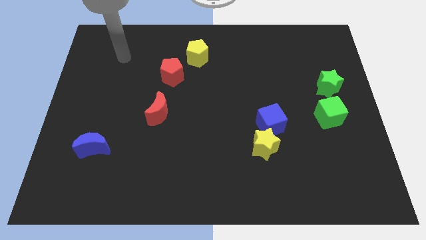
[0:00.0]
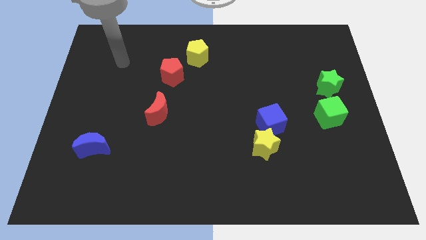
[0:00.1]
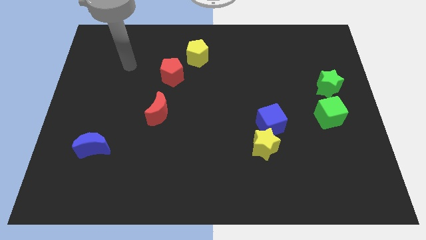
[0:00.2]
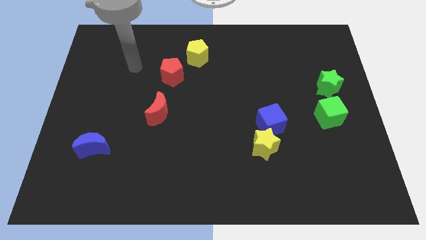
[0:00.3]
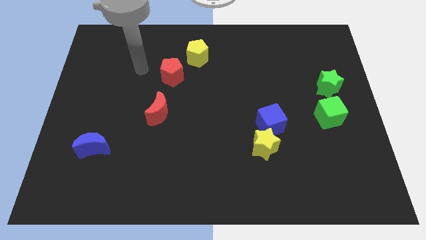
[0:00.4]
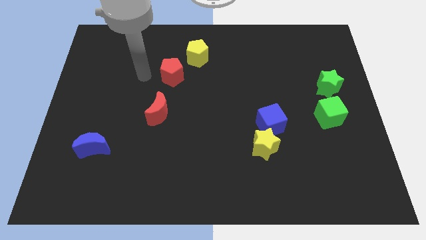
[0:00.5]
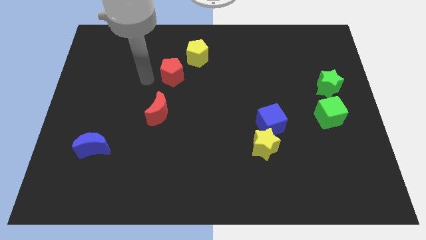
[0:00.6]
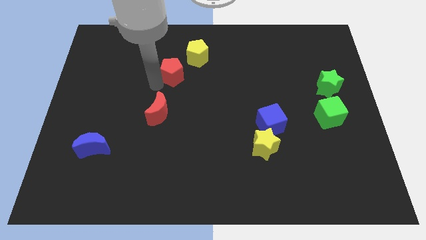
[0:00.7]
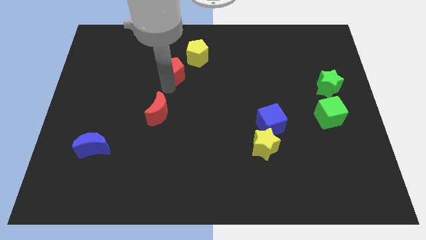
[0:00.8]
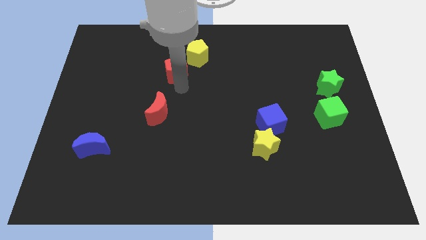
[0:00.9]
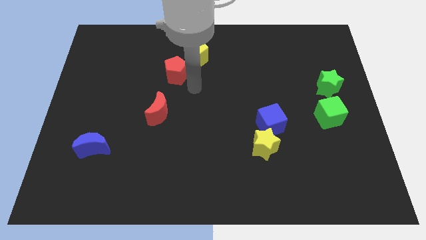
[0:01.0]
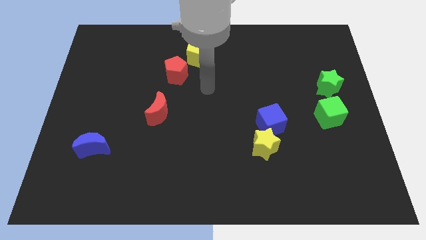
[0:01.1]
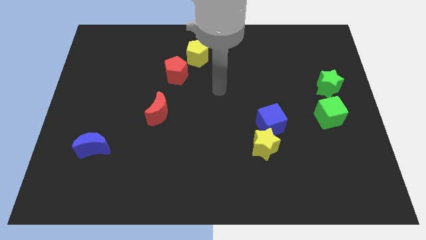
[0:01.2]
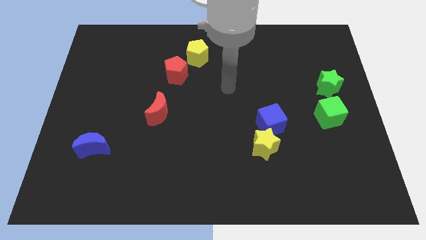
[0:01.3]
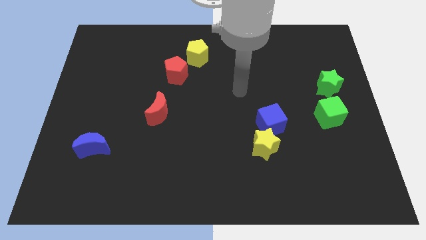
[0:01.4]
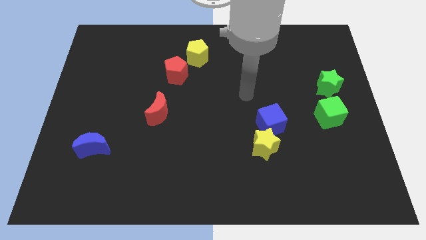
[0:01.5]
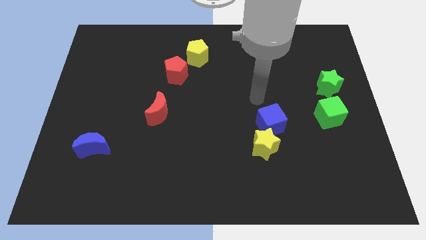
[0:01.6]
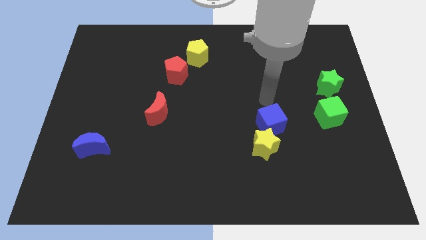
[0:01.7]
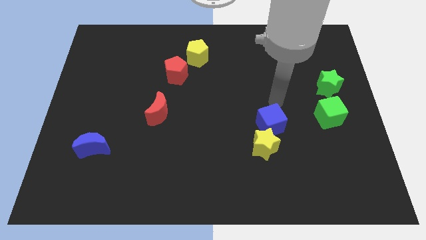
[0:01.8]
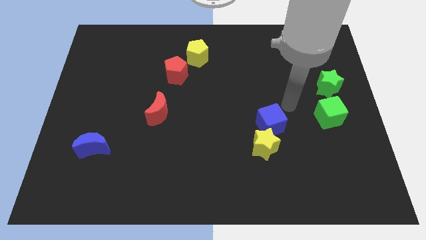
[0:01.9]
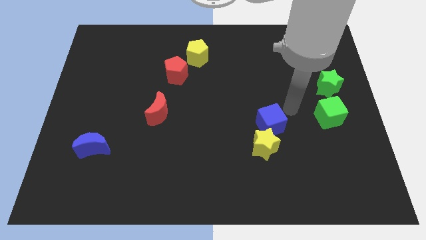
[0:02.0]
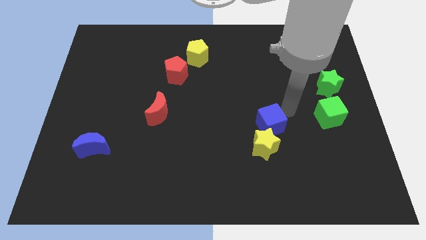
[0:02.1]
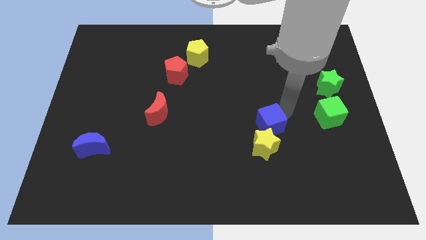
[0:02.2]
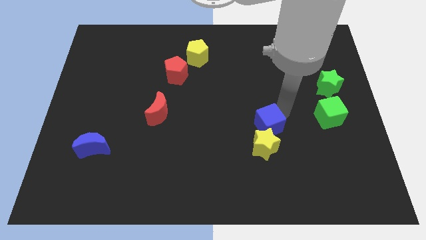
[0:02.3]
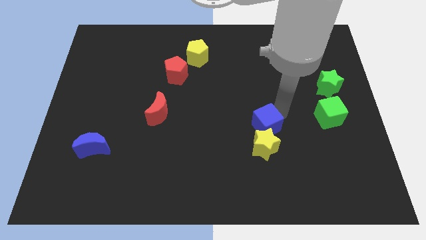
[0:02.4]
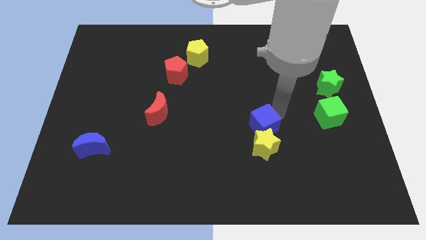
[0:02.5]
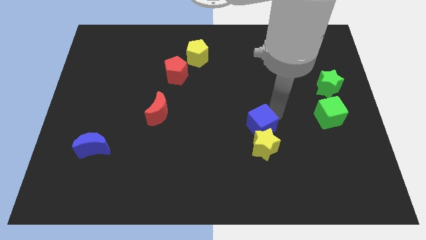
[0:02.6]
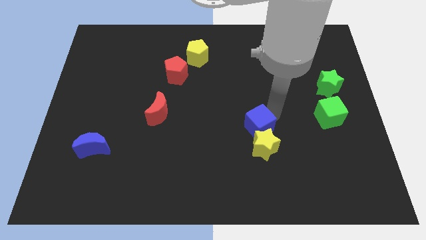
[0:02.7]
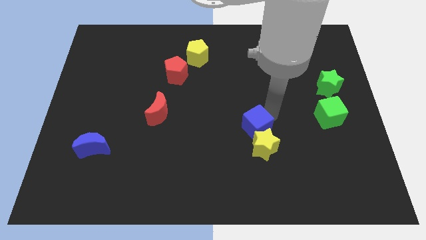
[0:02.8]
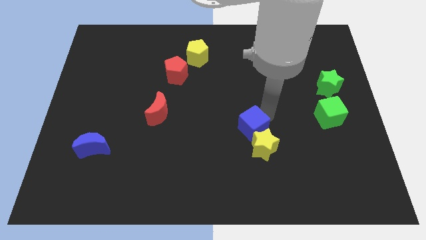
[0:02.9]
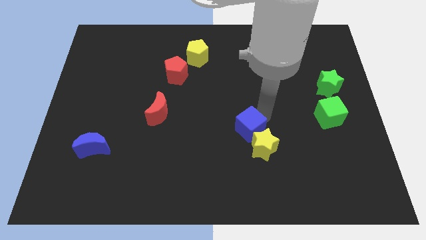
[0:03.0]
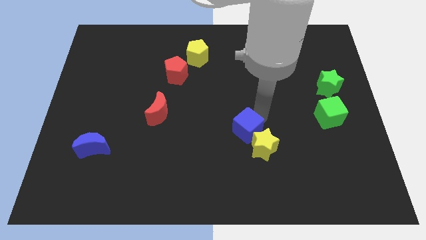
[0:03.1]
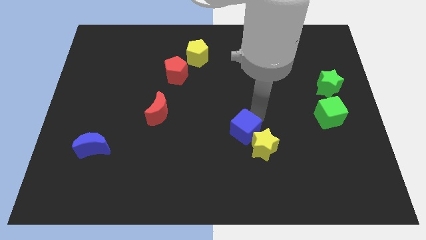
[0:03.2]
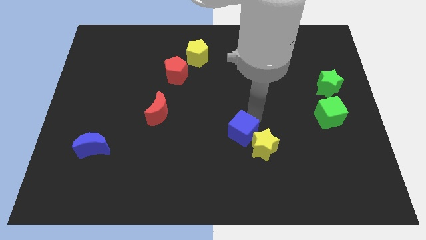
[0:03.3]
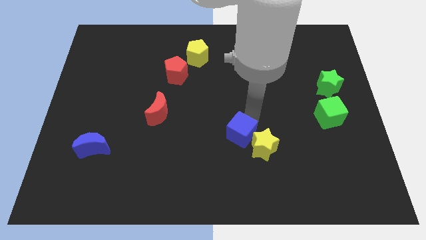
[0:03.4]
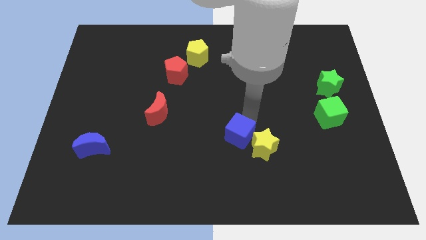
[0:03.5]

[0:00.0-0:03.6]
push the blue cube downwards and to the left a little

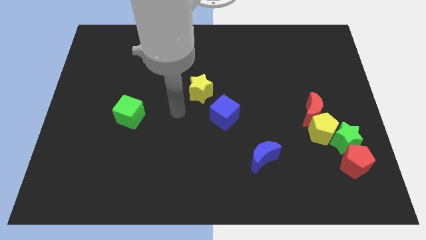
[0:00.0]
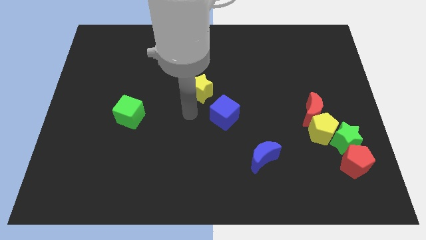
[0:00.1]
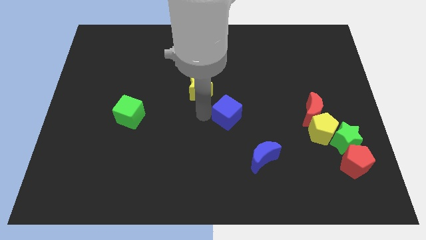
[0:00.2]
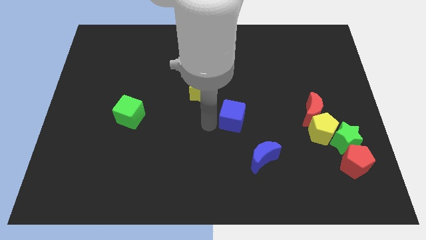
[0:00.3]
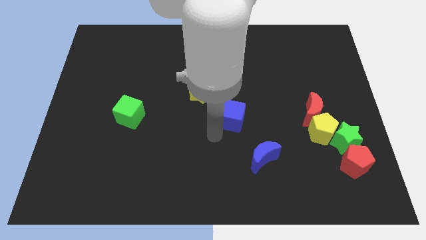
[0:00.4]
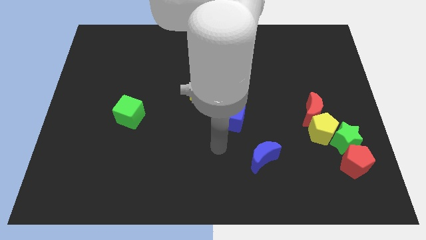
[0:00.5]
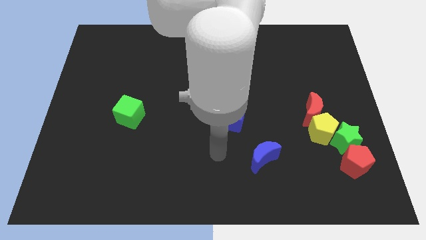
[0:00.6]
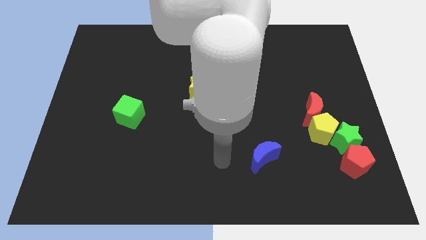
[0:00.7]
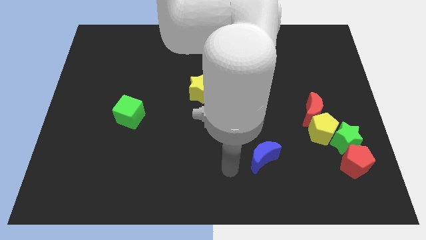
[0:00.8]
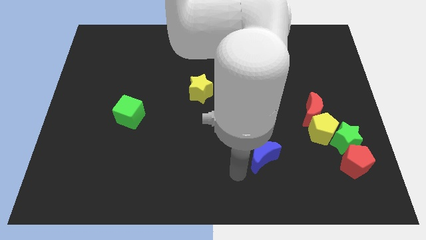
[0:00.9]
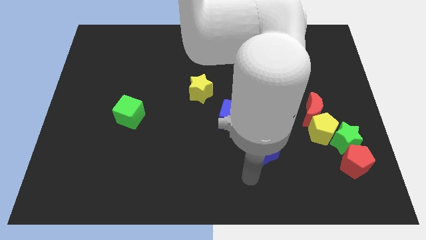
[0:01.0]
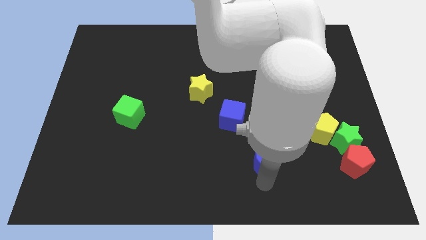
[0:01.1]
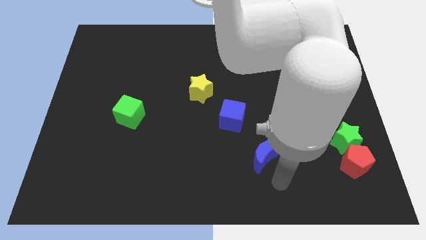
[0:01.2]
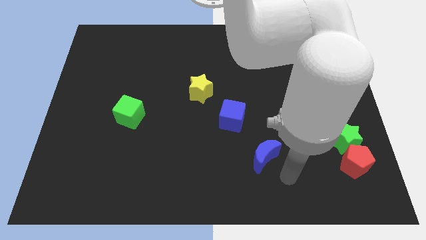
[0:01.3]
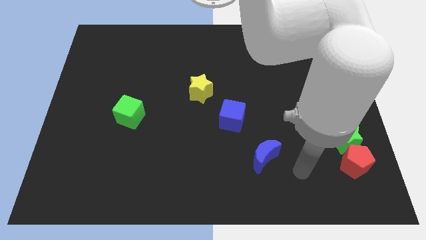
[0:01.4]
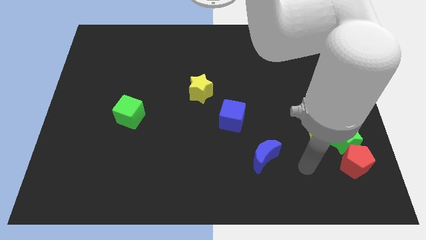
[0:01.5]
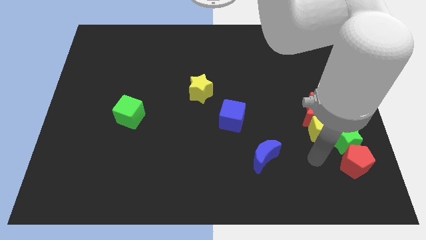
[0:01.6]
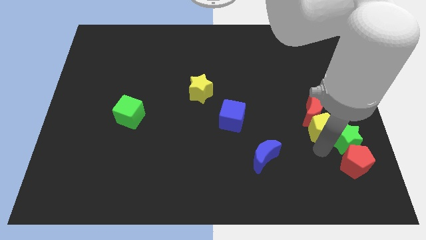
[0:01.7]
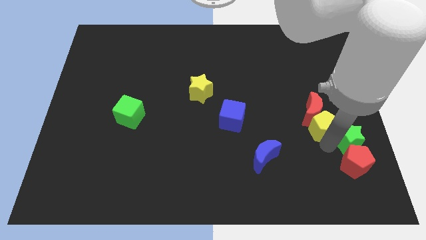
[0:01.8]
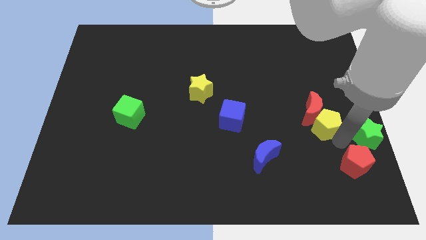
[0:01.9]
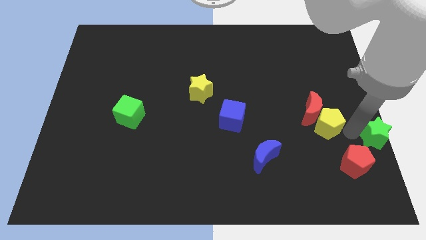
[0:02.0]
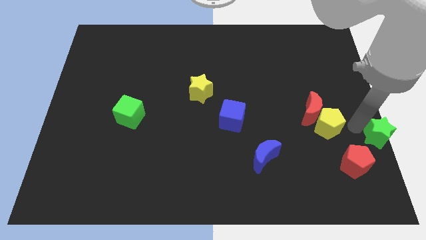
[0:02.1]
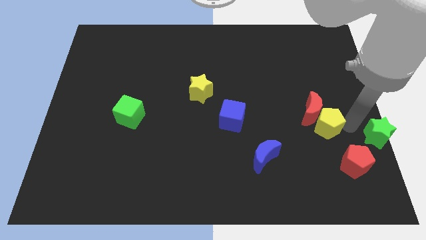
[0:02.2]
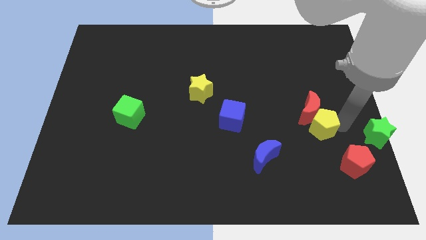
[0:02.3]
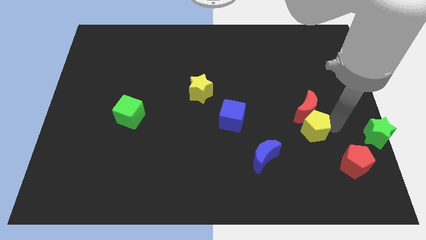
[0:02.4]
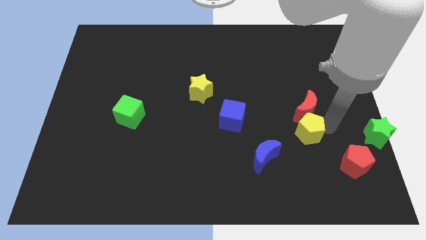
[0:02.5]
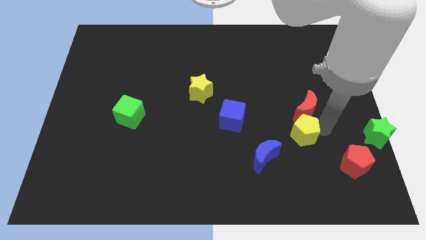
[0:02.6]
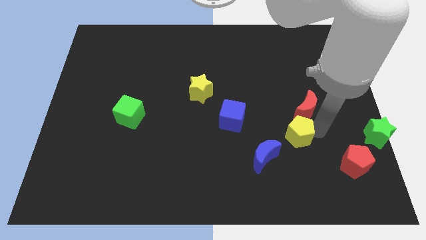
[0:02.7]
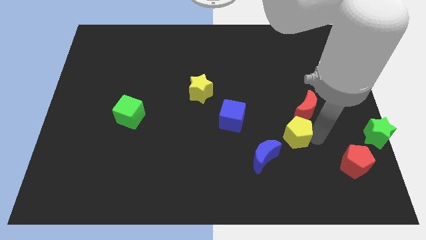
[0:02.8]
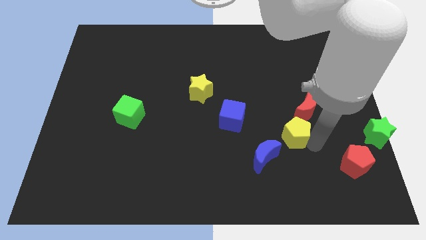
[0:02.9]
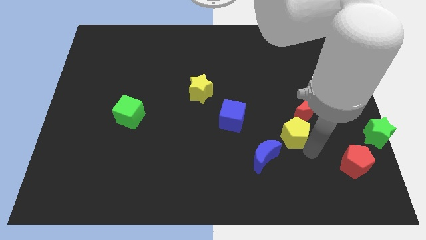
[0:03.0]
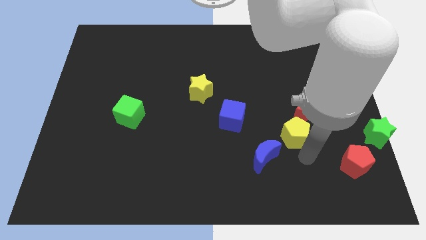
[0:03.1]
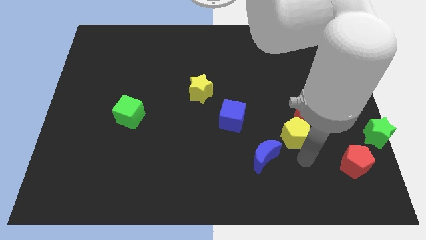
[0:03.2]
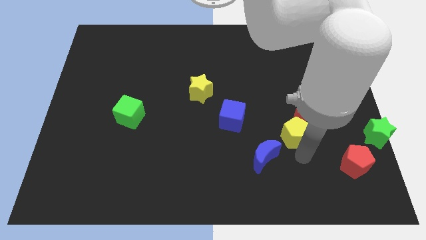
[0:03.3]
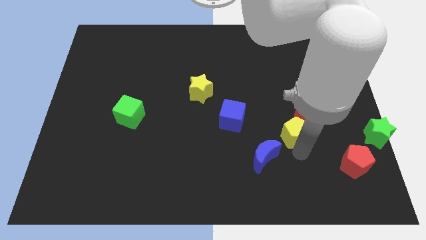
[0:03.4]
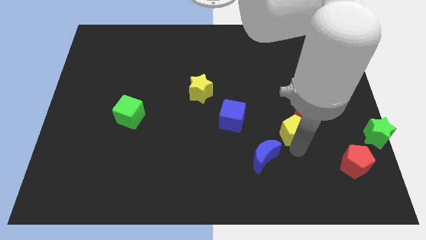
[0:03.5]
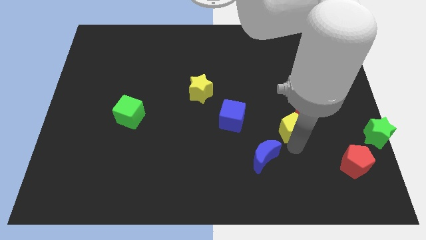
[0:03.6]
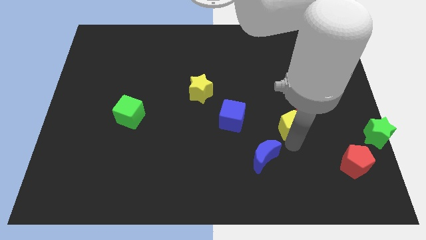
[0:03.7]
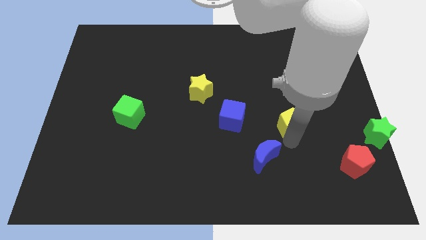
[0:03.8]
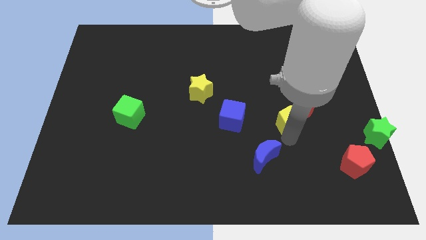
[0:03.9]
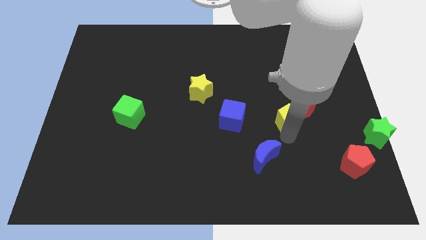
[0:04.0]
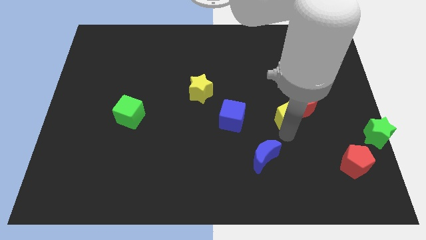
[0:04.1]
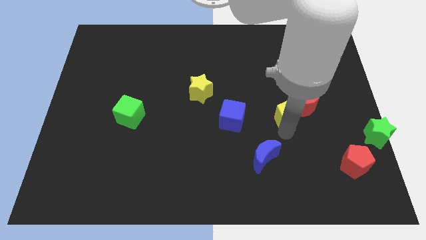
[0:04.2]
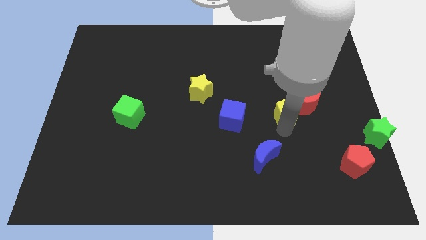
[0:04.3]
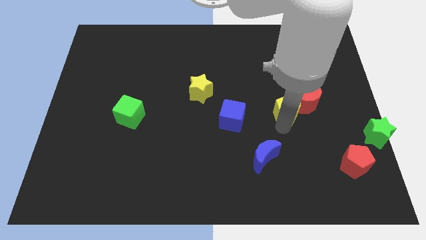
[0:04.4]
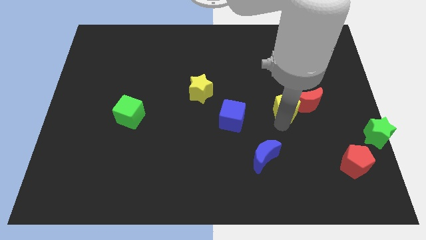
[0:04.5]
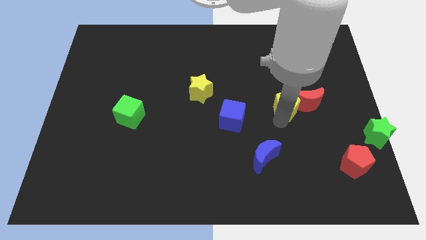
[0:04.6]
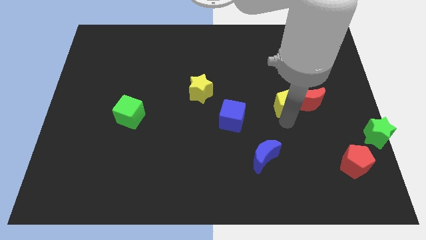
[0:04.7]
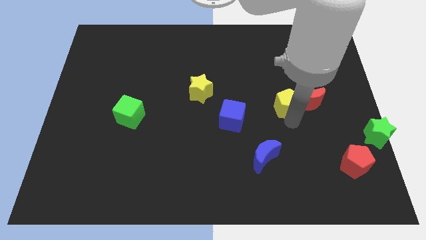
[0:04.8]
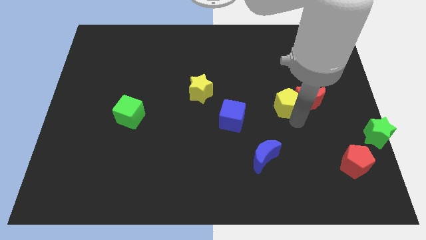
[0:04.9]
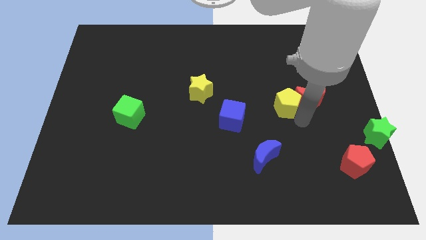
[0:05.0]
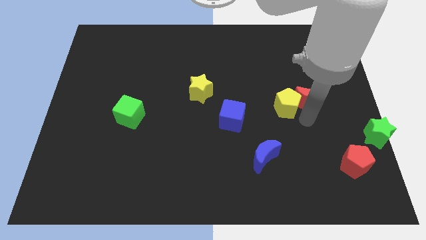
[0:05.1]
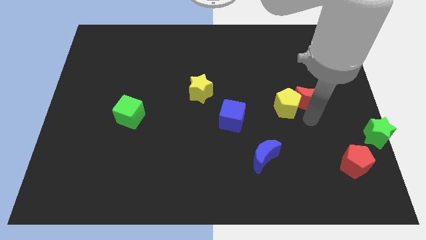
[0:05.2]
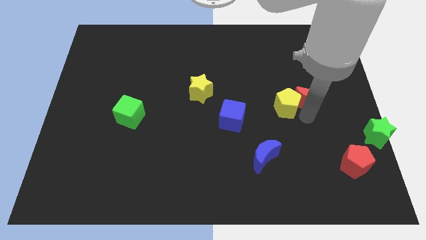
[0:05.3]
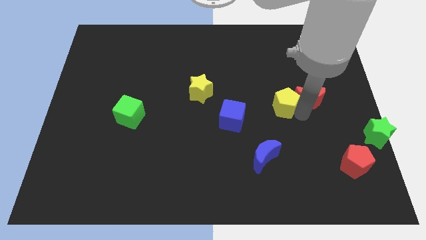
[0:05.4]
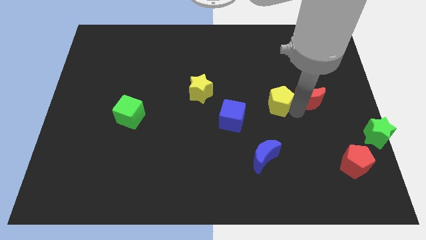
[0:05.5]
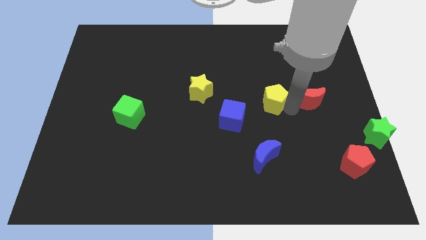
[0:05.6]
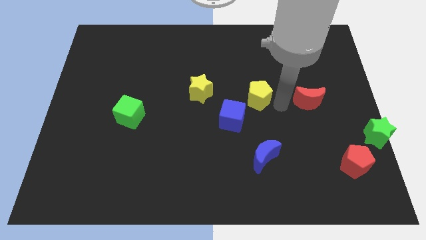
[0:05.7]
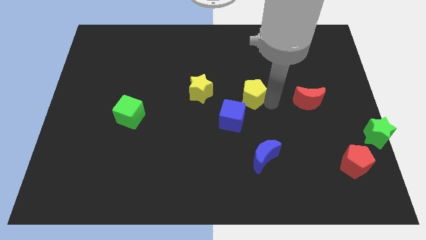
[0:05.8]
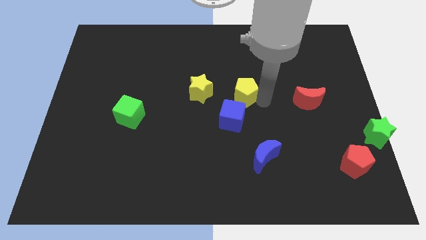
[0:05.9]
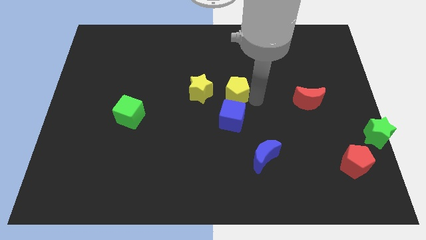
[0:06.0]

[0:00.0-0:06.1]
push the yellow pentagon diagonally upwards and to the left
